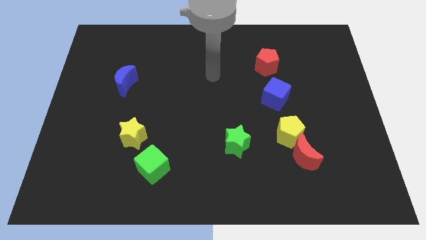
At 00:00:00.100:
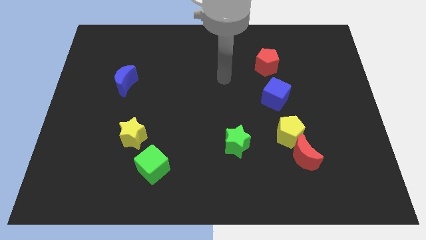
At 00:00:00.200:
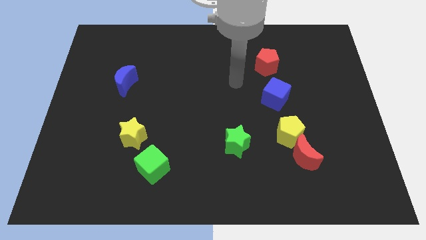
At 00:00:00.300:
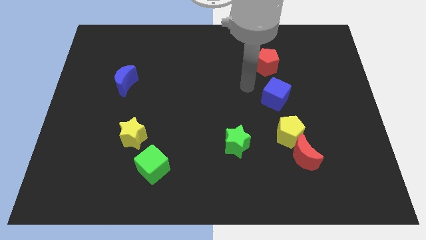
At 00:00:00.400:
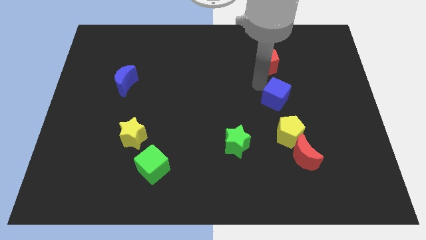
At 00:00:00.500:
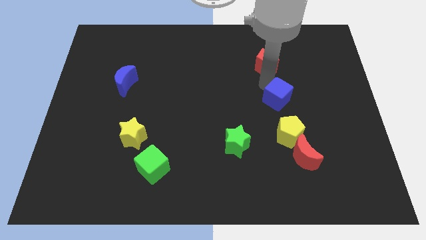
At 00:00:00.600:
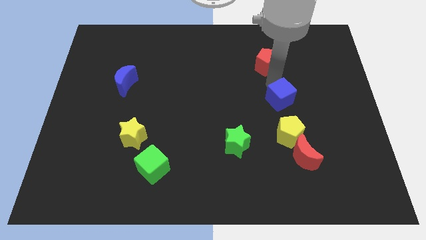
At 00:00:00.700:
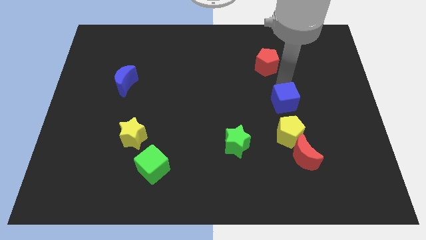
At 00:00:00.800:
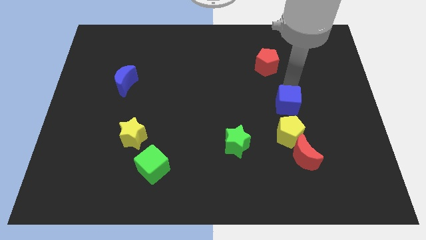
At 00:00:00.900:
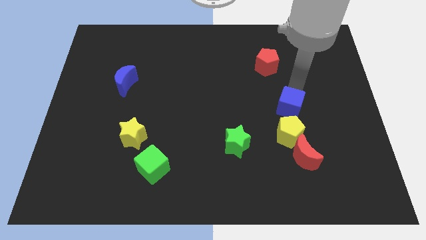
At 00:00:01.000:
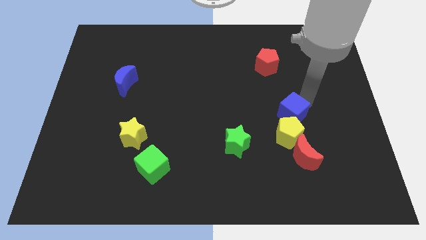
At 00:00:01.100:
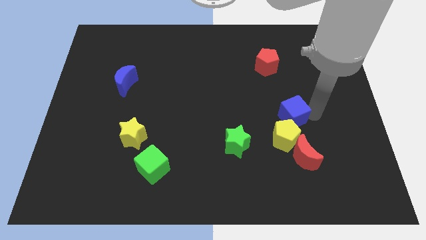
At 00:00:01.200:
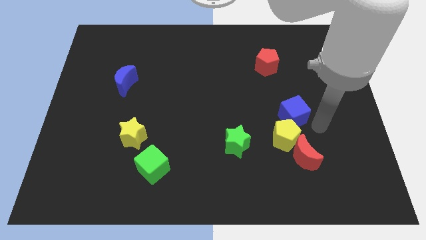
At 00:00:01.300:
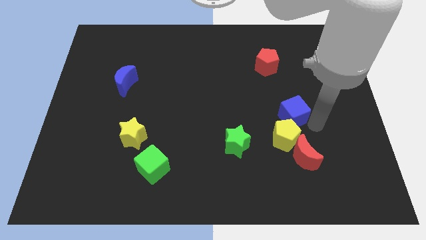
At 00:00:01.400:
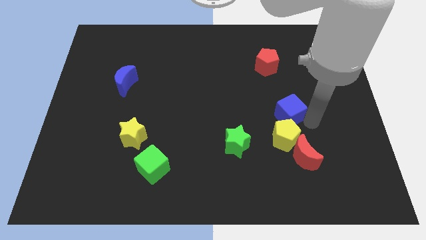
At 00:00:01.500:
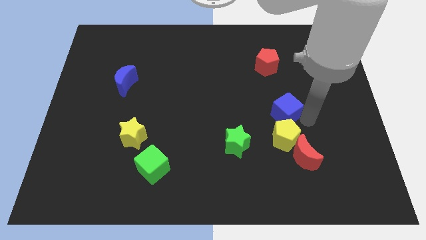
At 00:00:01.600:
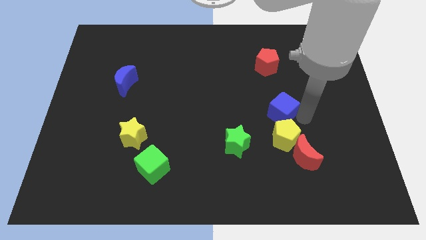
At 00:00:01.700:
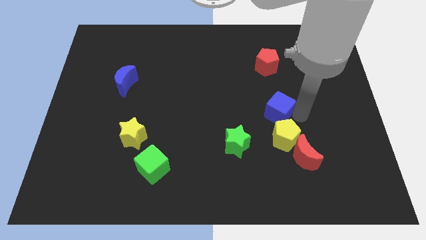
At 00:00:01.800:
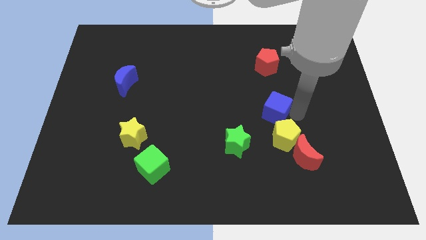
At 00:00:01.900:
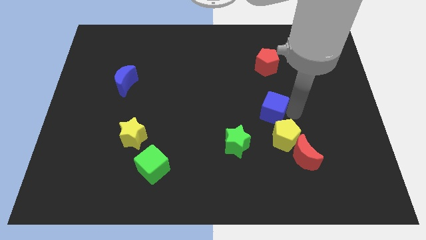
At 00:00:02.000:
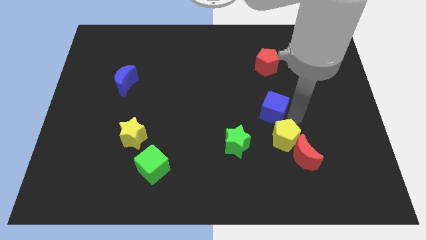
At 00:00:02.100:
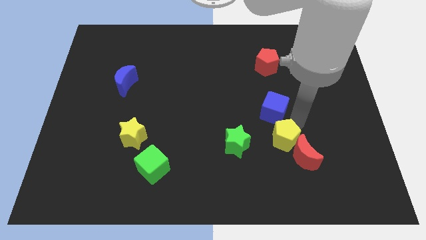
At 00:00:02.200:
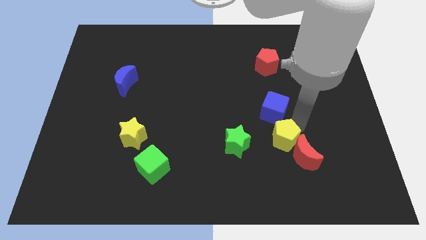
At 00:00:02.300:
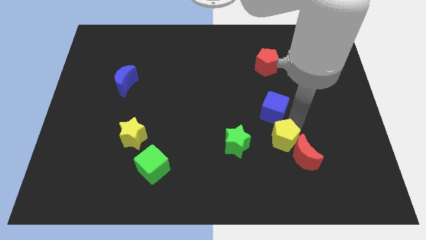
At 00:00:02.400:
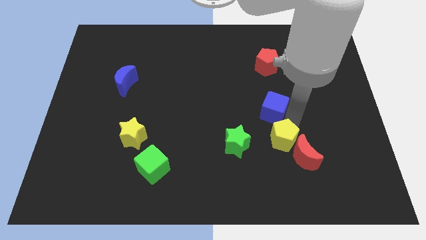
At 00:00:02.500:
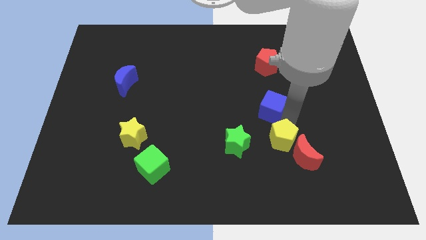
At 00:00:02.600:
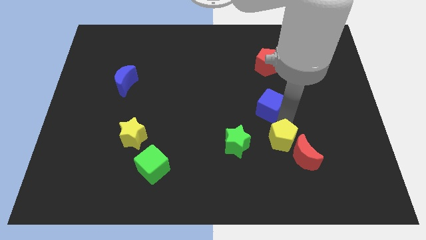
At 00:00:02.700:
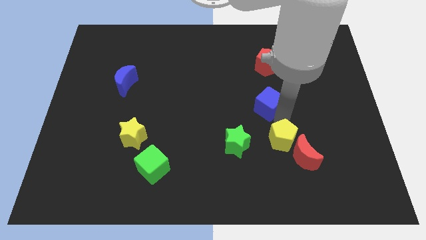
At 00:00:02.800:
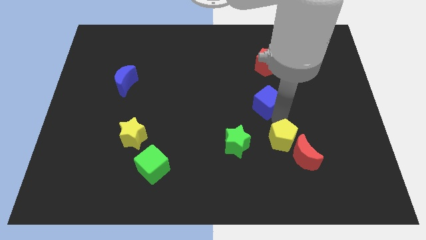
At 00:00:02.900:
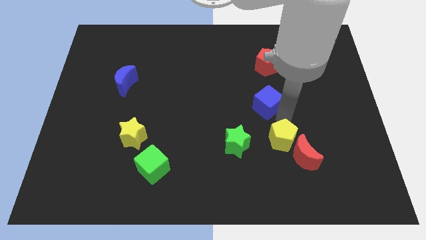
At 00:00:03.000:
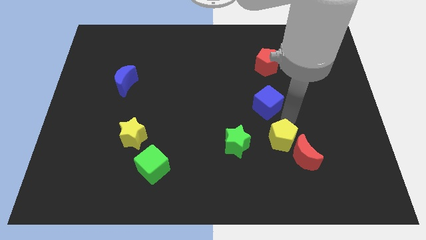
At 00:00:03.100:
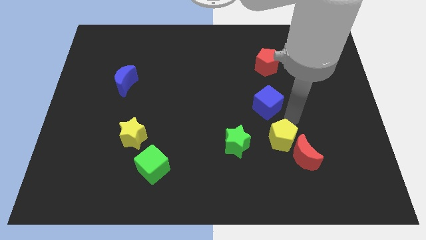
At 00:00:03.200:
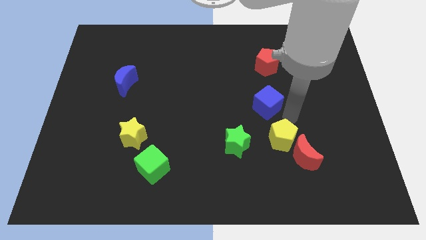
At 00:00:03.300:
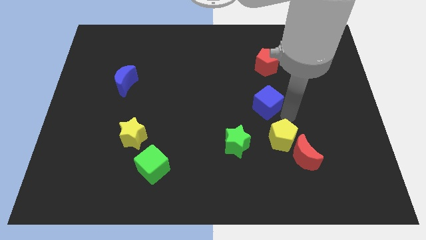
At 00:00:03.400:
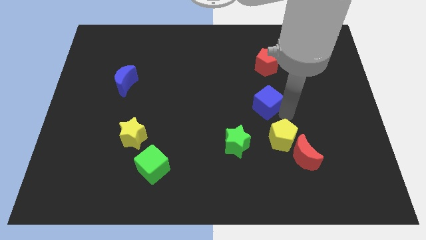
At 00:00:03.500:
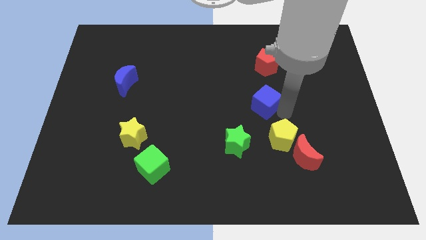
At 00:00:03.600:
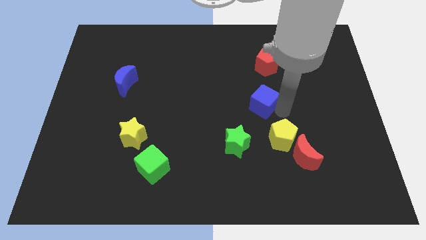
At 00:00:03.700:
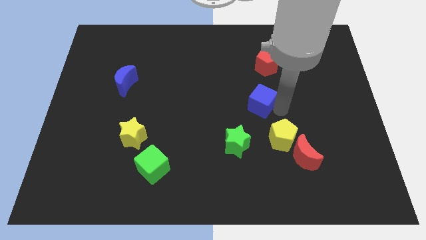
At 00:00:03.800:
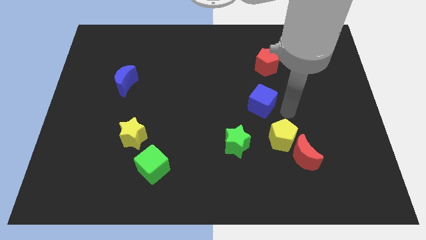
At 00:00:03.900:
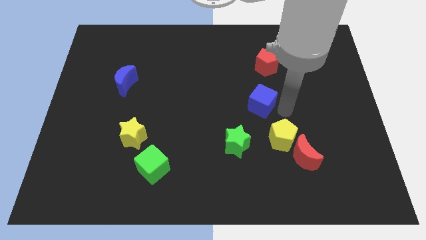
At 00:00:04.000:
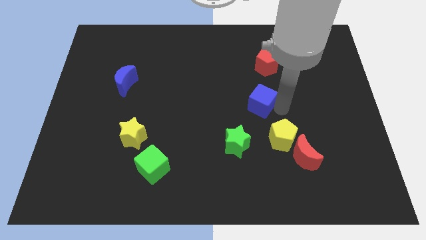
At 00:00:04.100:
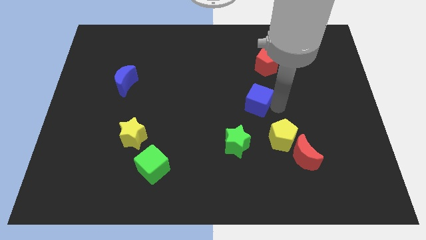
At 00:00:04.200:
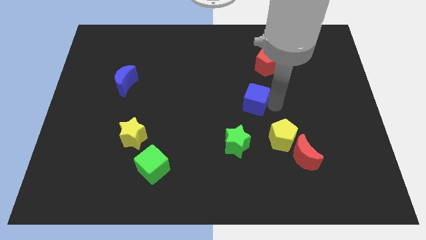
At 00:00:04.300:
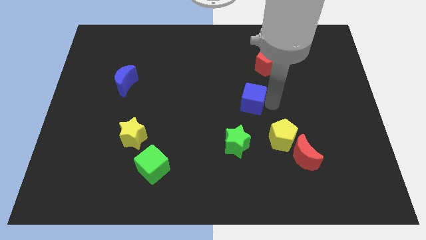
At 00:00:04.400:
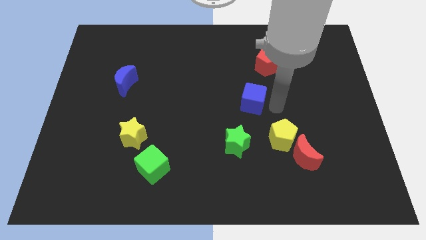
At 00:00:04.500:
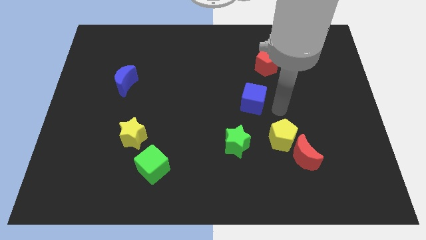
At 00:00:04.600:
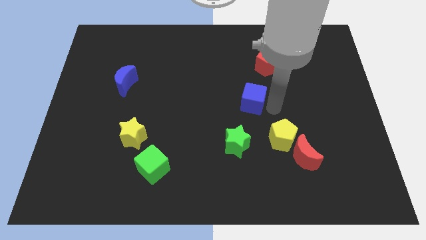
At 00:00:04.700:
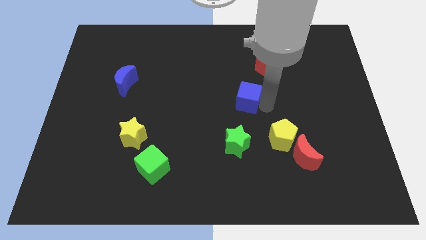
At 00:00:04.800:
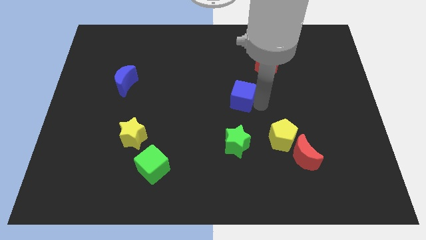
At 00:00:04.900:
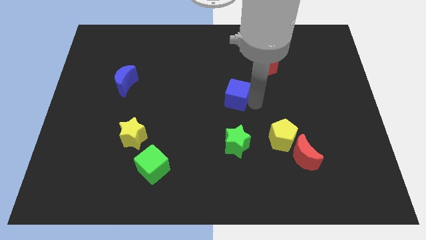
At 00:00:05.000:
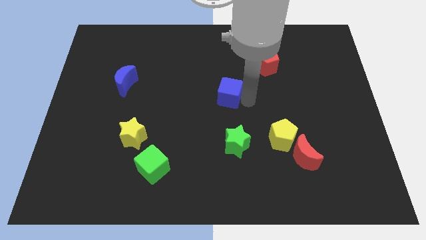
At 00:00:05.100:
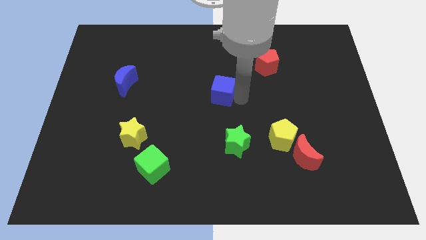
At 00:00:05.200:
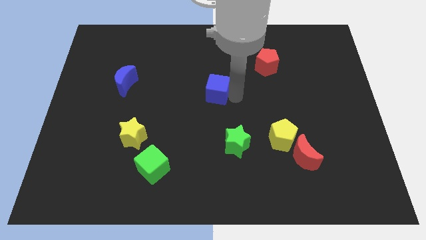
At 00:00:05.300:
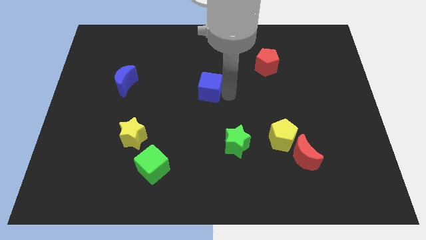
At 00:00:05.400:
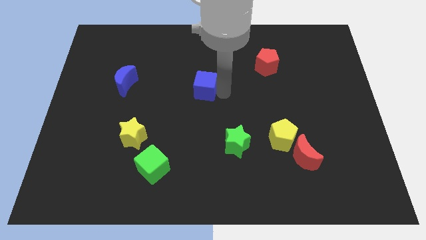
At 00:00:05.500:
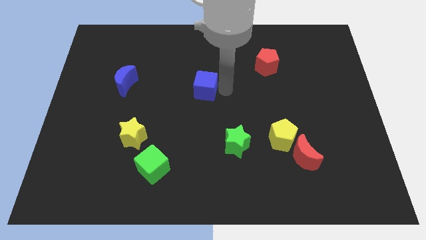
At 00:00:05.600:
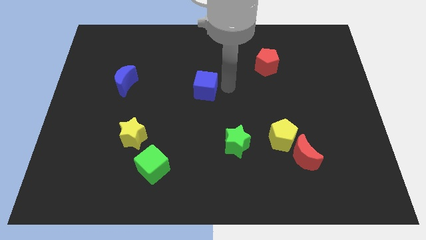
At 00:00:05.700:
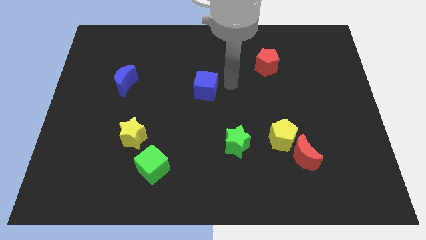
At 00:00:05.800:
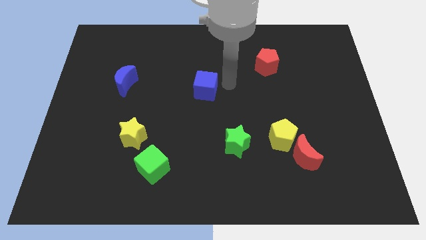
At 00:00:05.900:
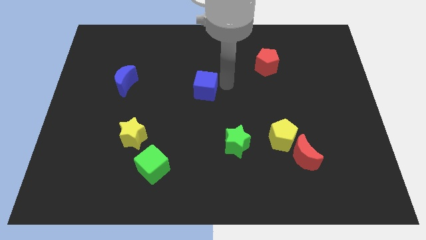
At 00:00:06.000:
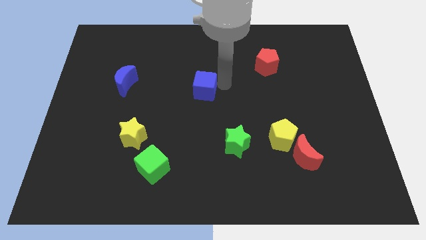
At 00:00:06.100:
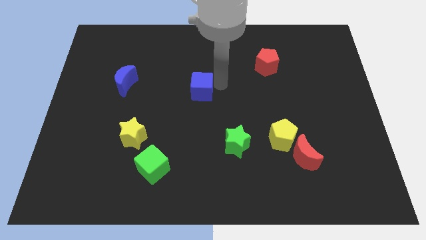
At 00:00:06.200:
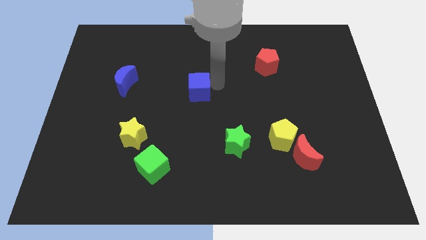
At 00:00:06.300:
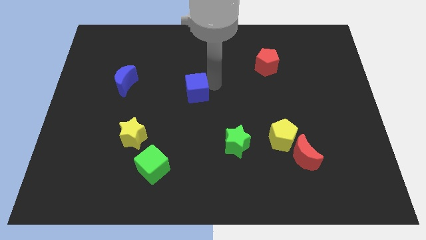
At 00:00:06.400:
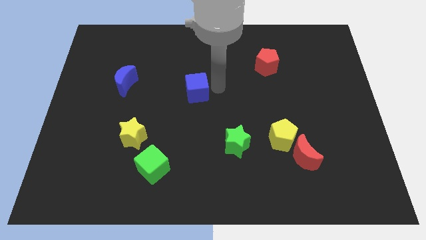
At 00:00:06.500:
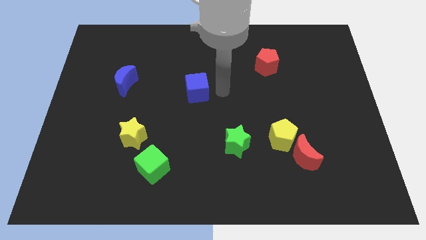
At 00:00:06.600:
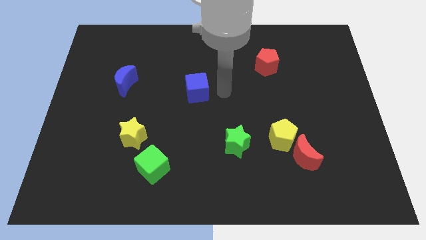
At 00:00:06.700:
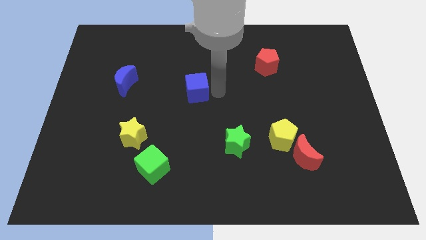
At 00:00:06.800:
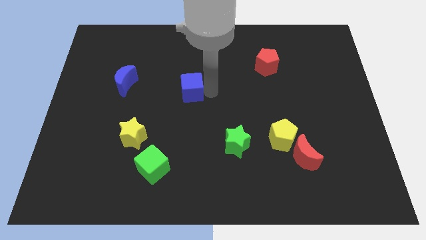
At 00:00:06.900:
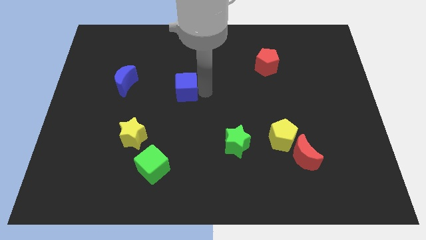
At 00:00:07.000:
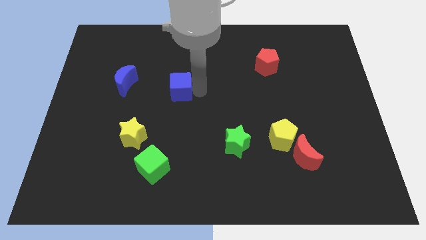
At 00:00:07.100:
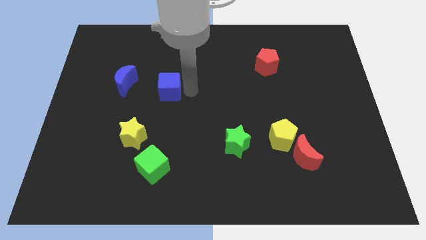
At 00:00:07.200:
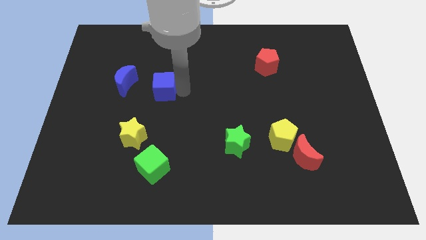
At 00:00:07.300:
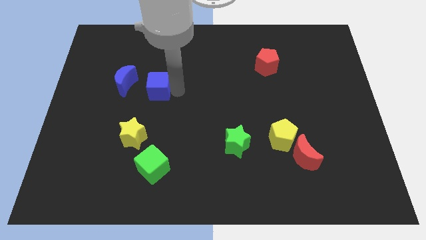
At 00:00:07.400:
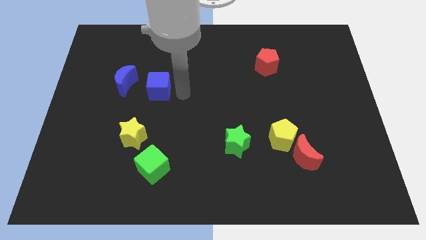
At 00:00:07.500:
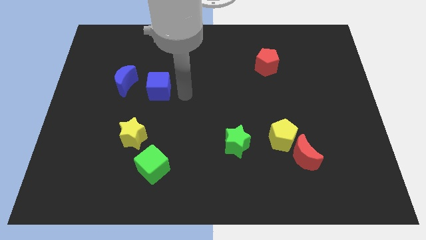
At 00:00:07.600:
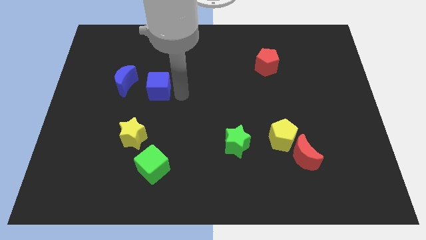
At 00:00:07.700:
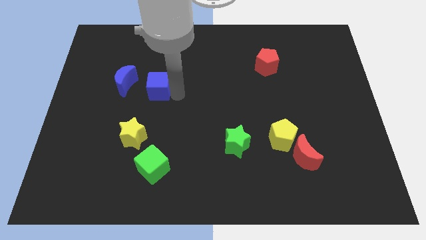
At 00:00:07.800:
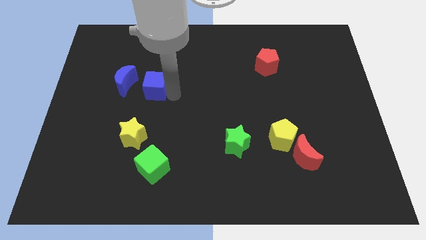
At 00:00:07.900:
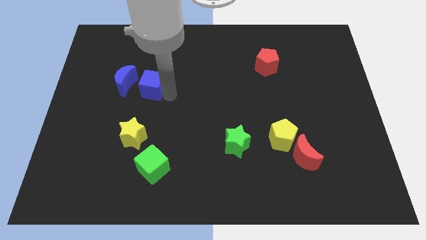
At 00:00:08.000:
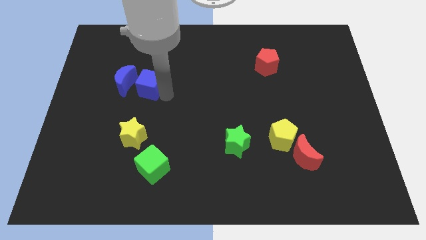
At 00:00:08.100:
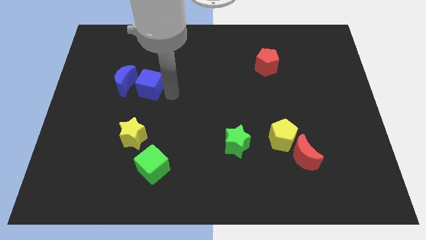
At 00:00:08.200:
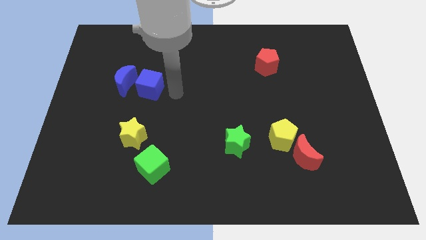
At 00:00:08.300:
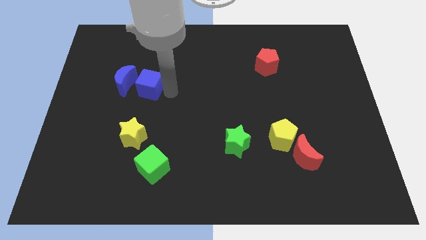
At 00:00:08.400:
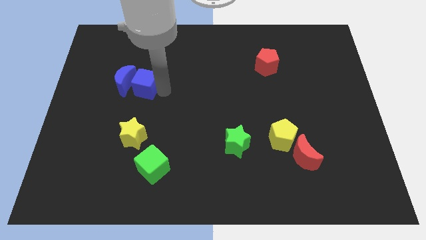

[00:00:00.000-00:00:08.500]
move the blue cube to the blue moon
